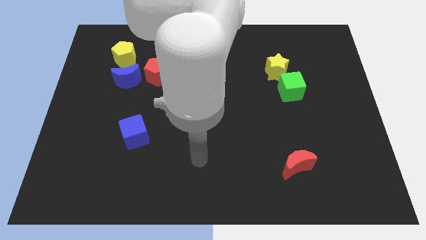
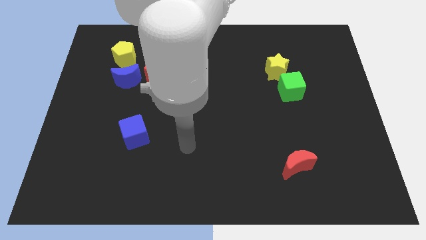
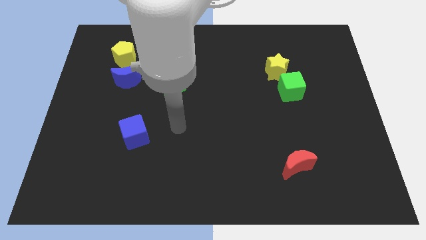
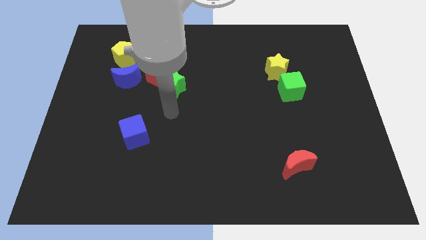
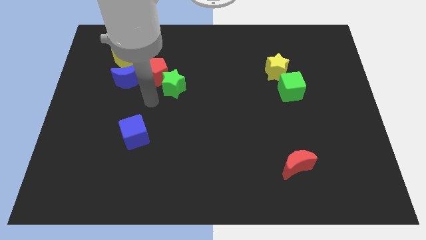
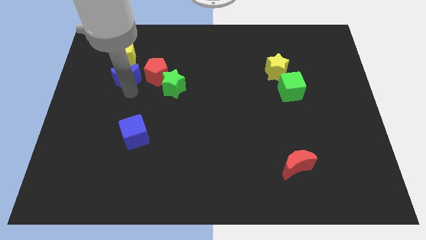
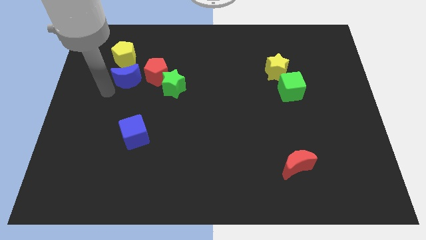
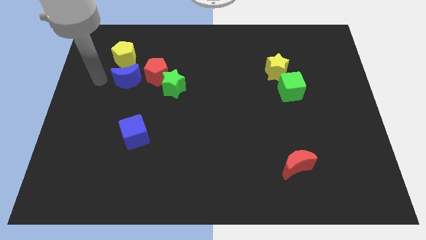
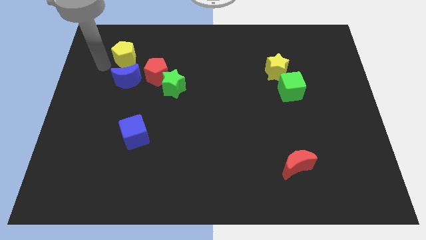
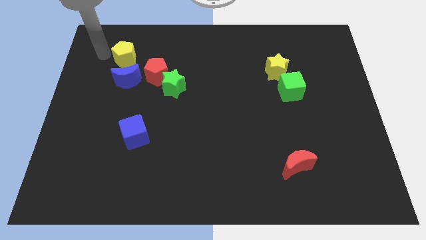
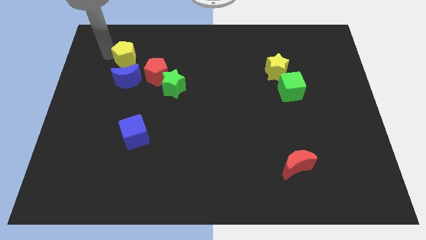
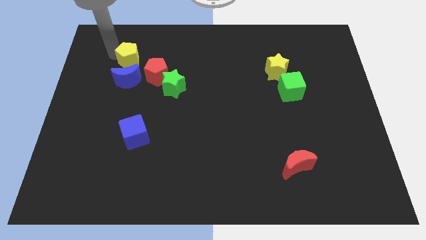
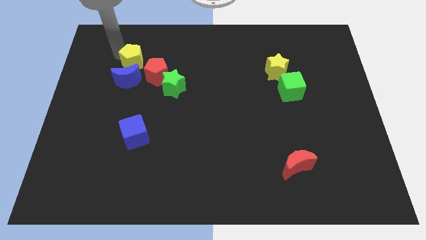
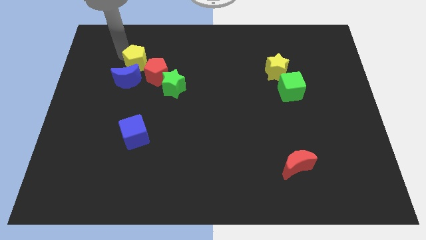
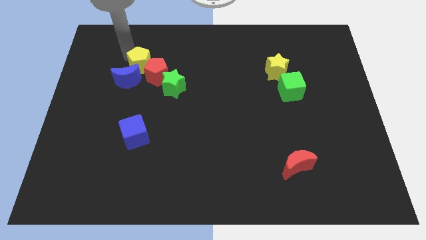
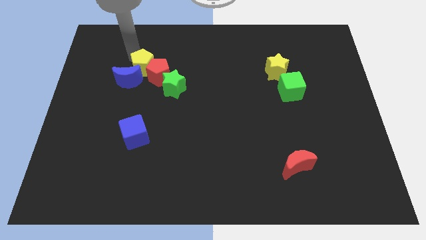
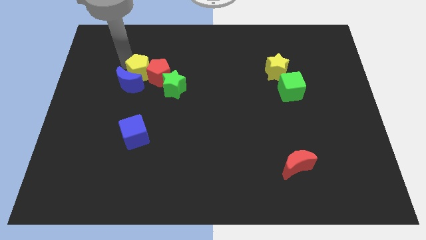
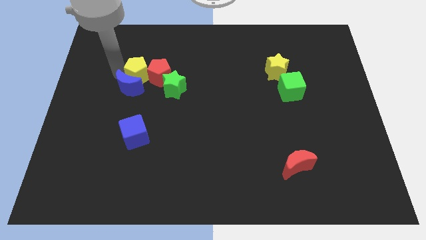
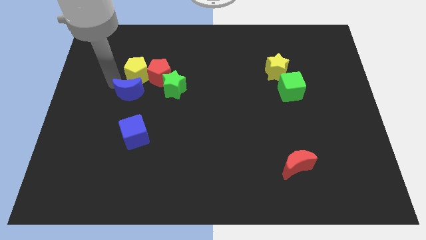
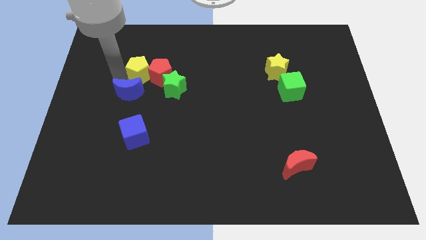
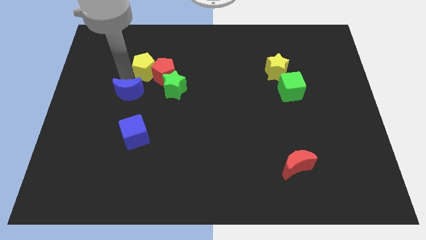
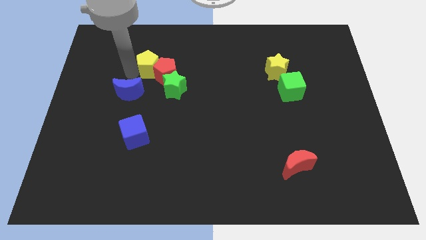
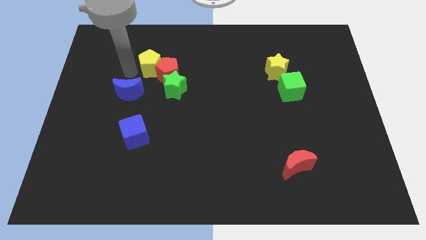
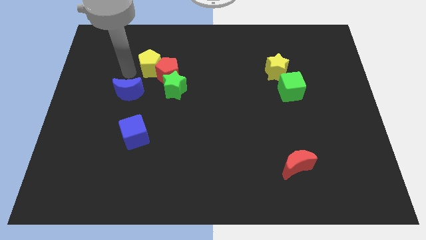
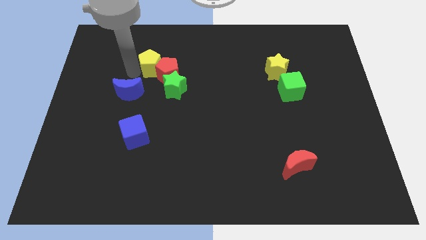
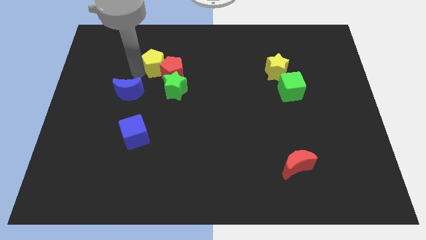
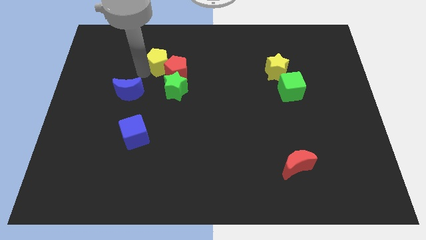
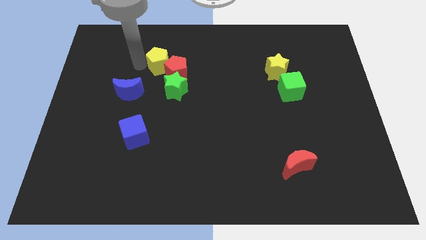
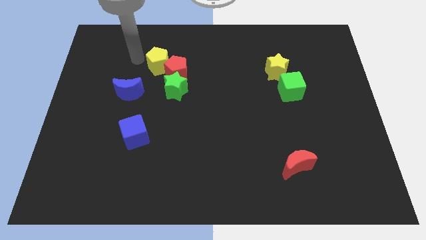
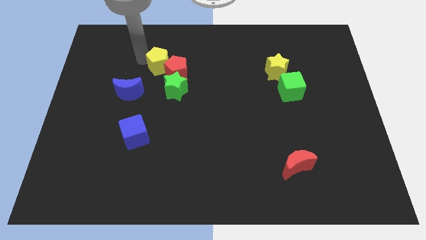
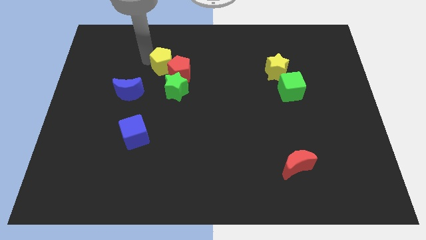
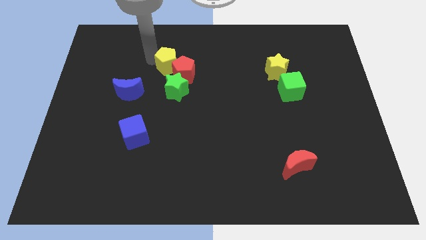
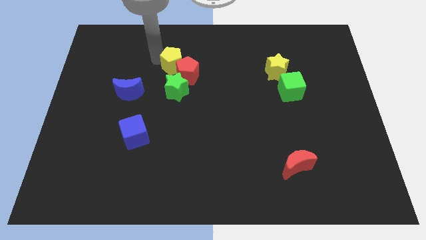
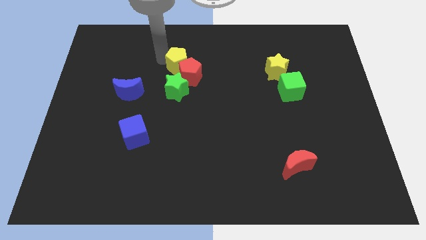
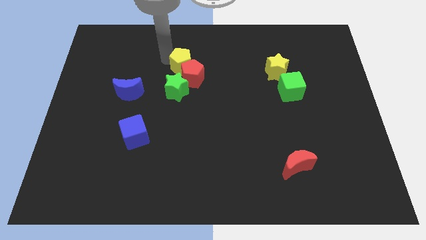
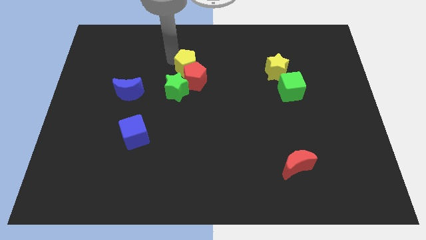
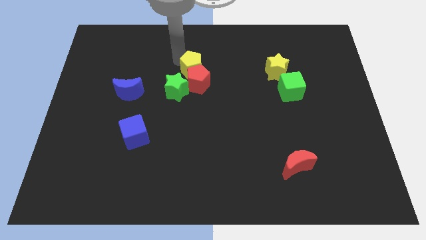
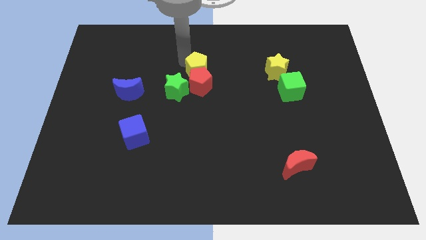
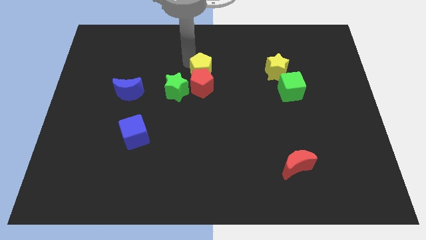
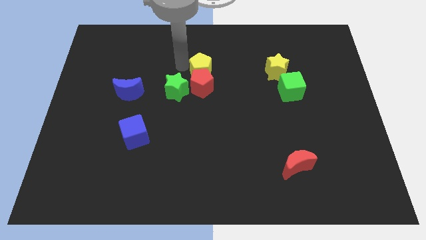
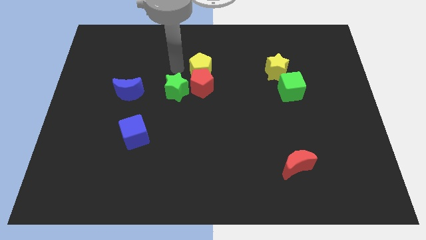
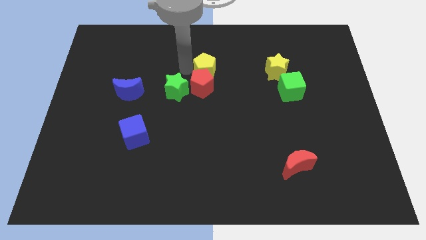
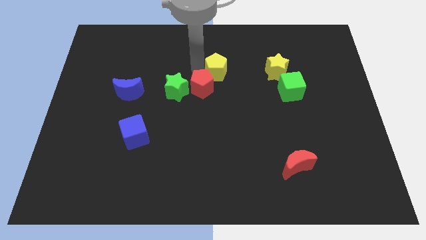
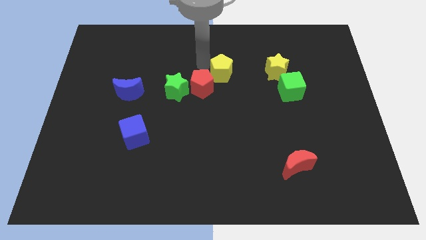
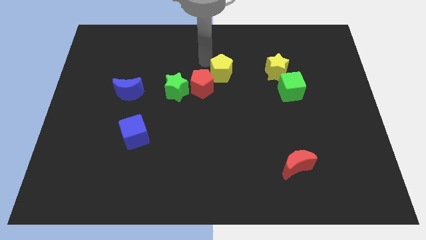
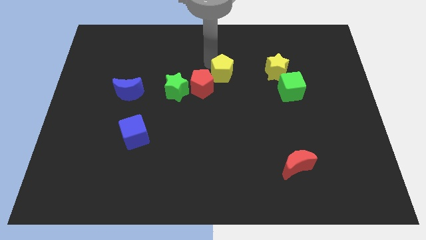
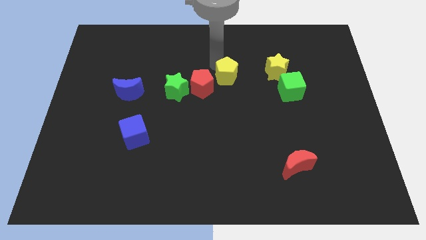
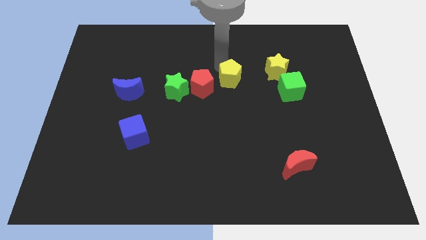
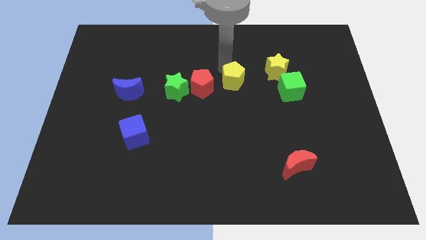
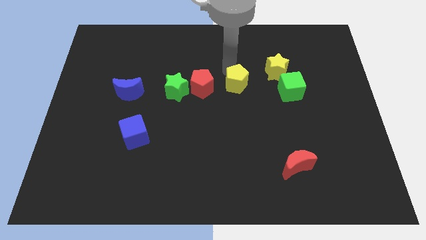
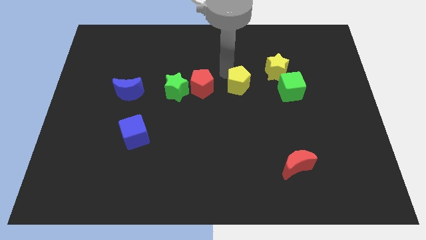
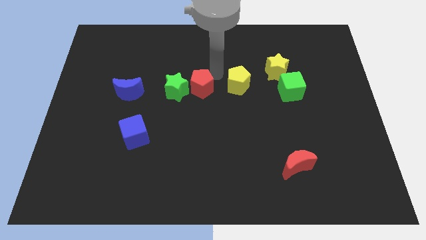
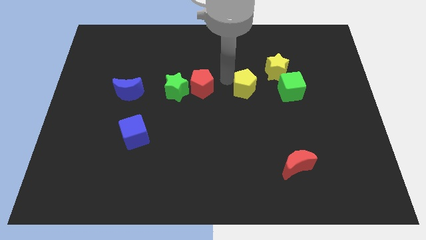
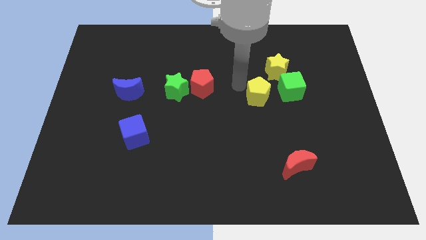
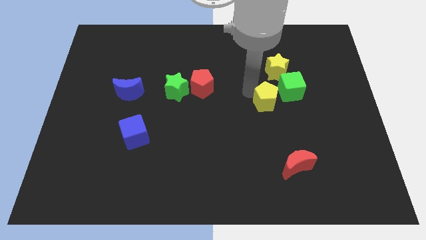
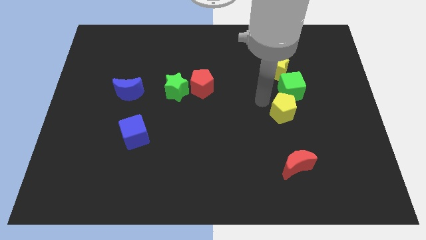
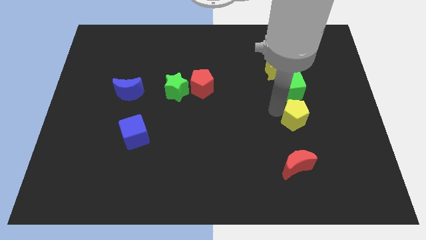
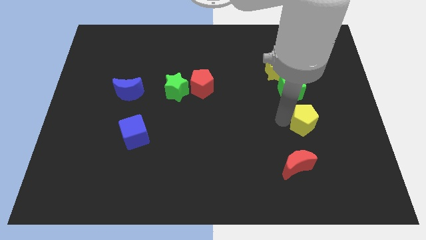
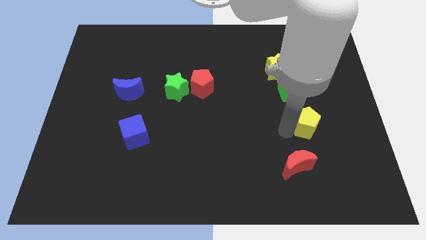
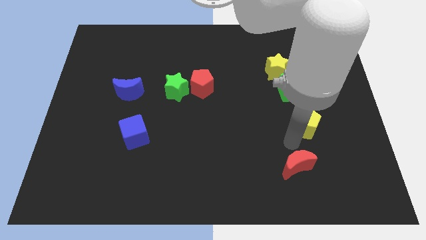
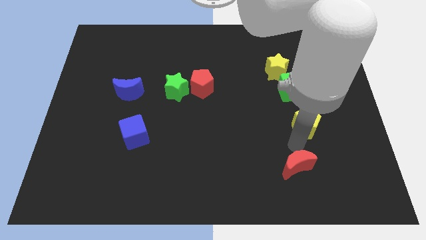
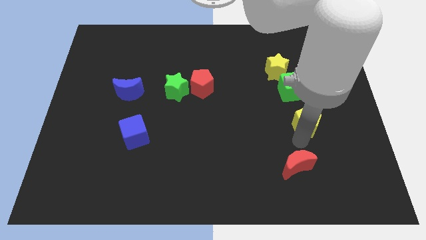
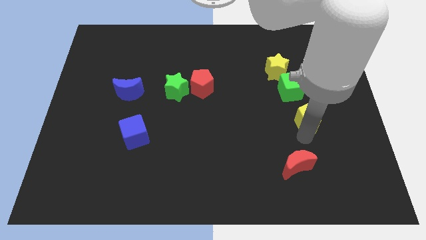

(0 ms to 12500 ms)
move the yellow pentagon to the bottom right of the green cube
